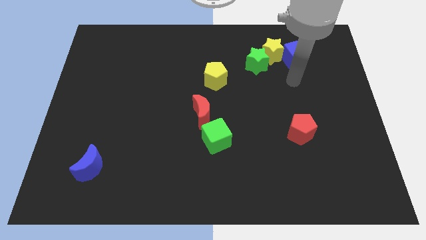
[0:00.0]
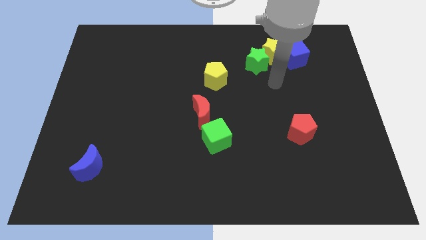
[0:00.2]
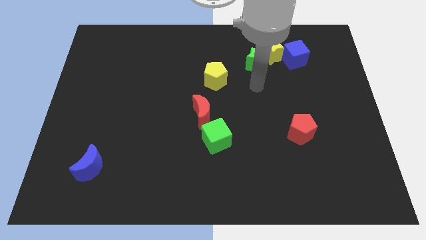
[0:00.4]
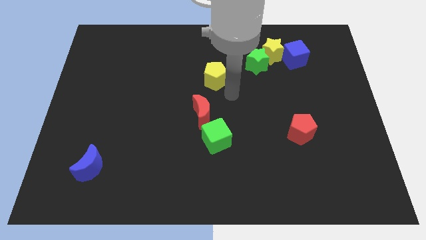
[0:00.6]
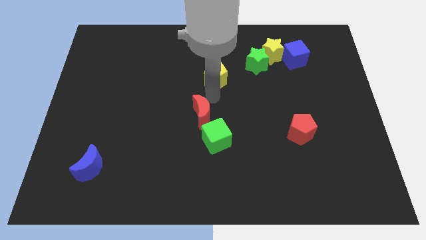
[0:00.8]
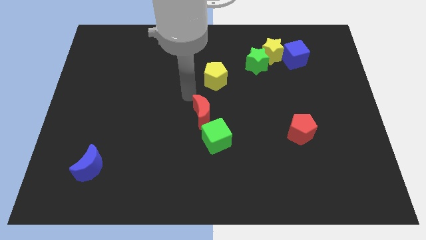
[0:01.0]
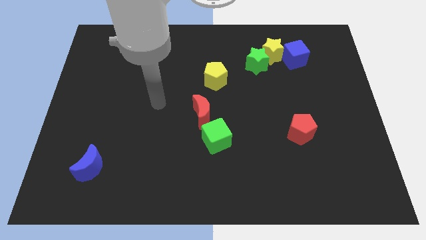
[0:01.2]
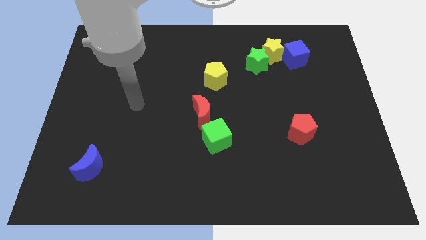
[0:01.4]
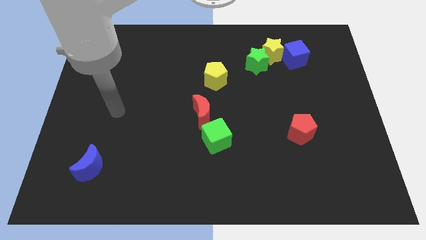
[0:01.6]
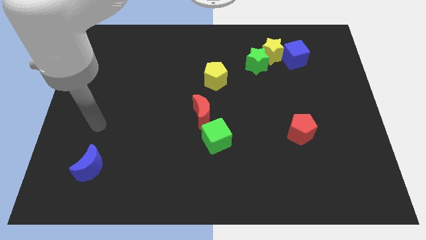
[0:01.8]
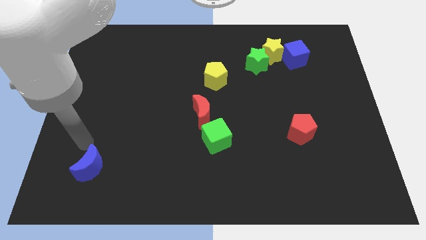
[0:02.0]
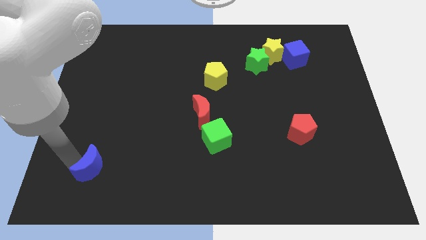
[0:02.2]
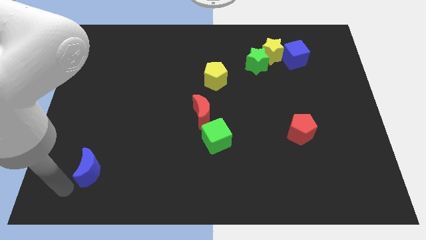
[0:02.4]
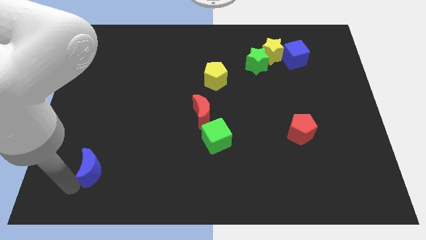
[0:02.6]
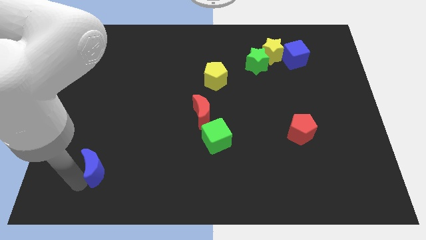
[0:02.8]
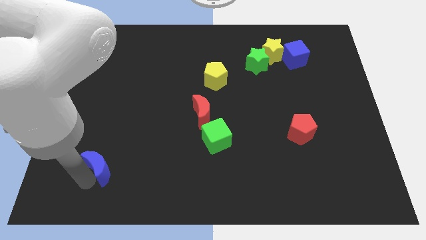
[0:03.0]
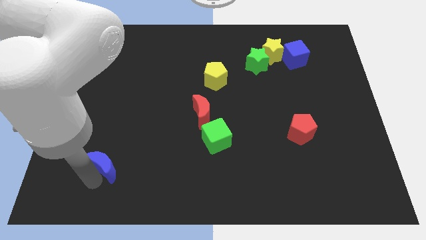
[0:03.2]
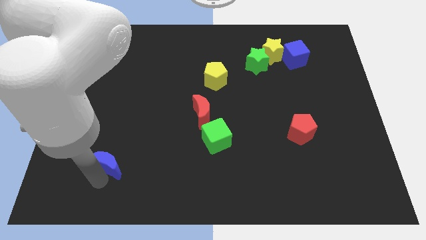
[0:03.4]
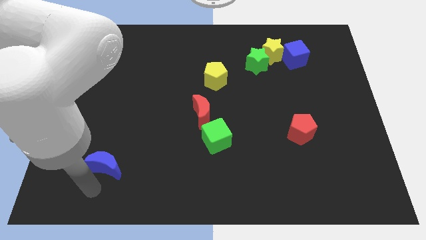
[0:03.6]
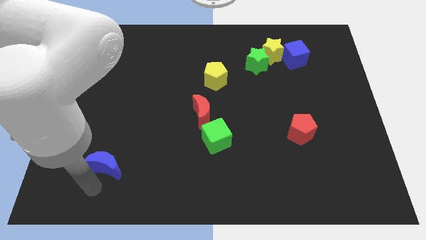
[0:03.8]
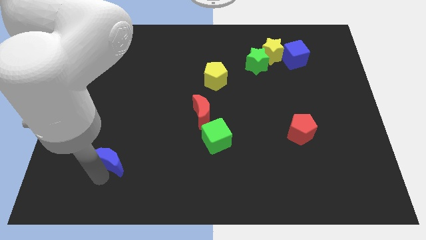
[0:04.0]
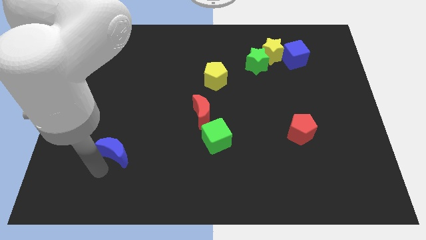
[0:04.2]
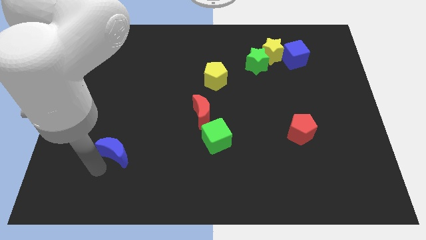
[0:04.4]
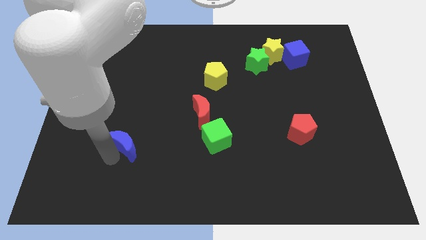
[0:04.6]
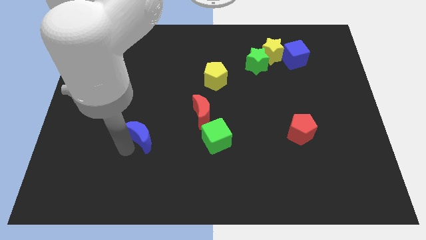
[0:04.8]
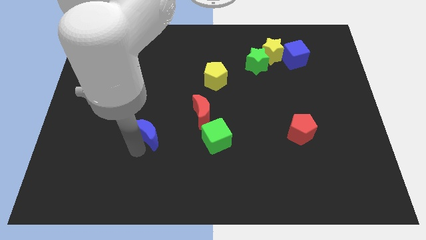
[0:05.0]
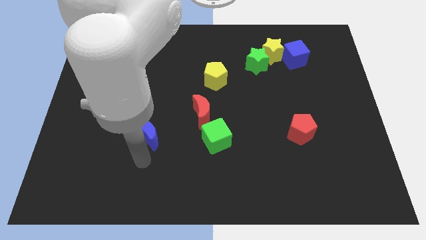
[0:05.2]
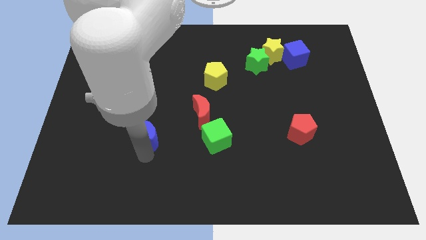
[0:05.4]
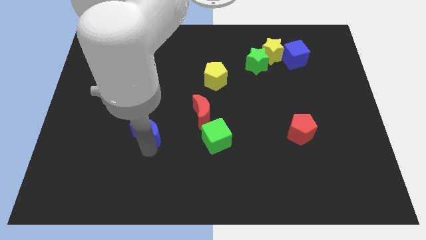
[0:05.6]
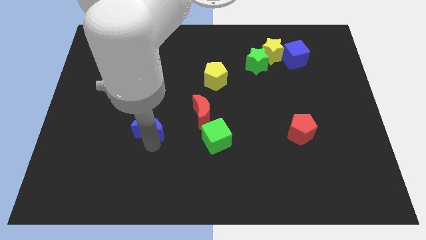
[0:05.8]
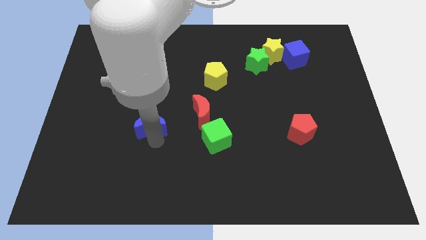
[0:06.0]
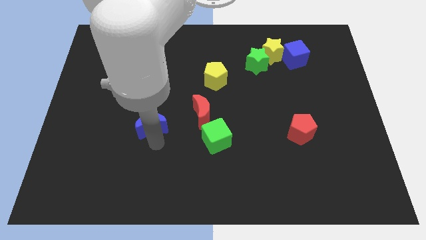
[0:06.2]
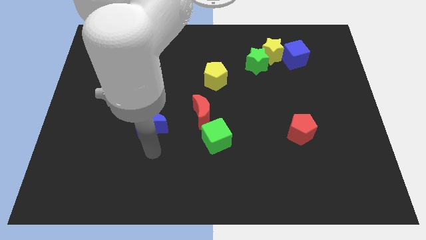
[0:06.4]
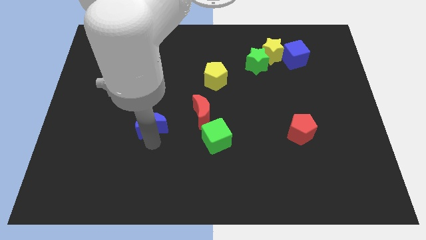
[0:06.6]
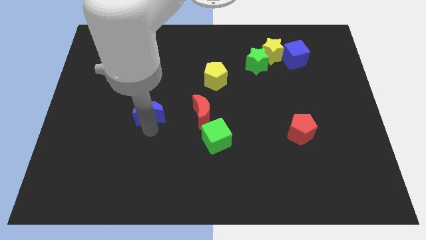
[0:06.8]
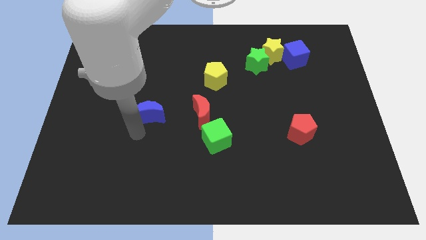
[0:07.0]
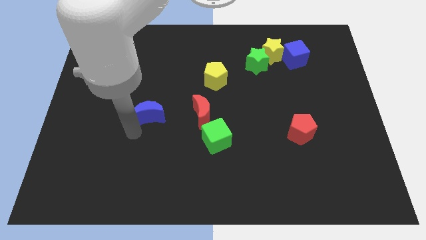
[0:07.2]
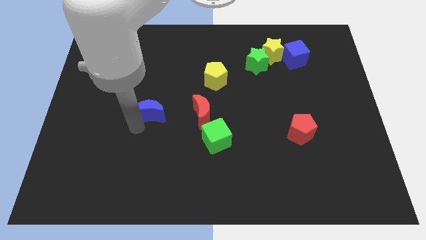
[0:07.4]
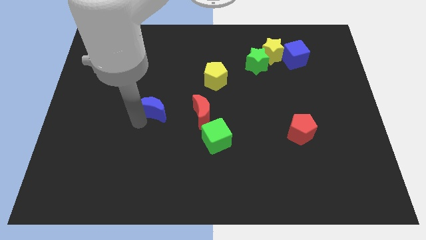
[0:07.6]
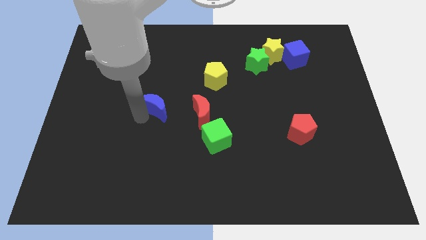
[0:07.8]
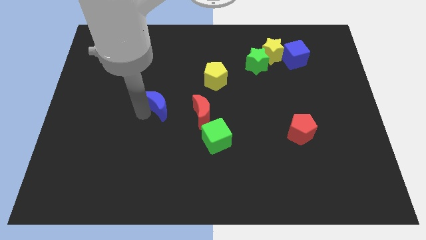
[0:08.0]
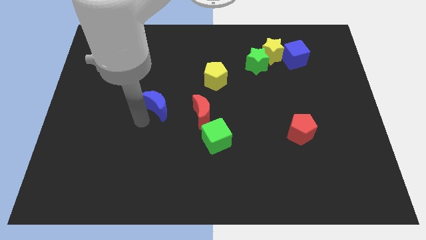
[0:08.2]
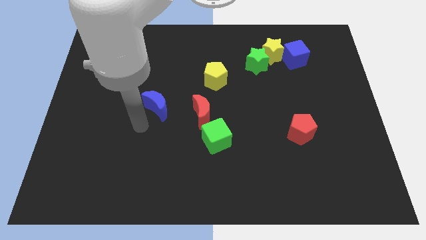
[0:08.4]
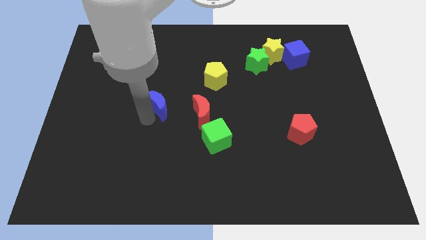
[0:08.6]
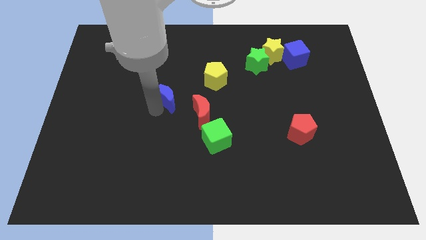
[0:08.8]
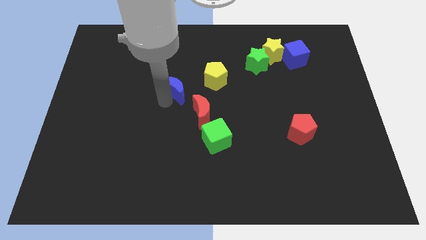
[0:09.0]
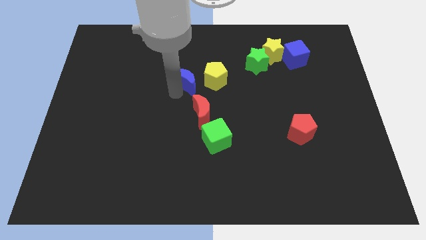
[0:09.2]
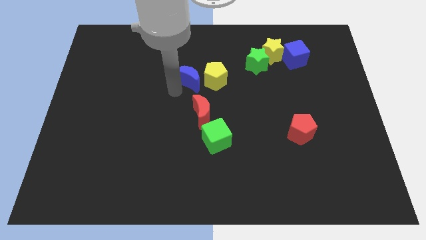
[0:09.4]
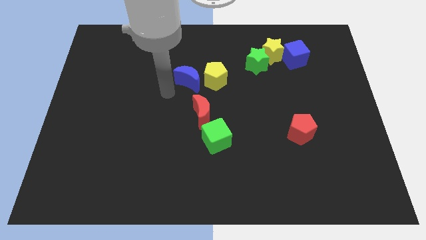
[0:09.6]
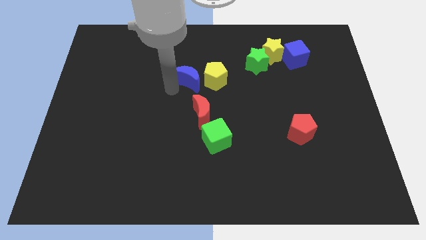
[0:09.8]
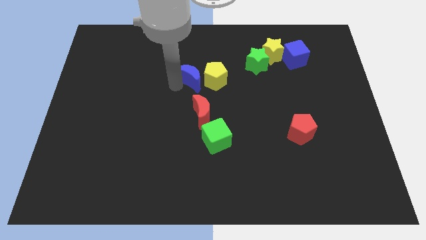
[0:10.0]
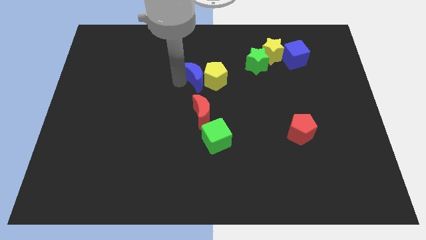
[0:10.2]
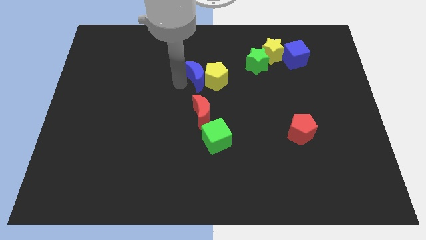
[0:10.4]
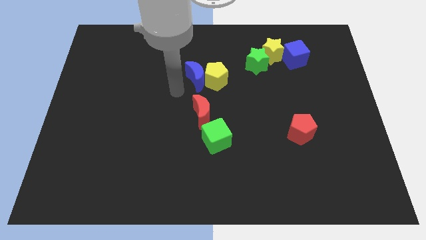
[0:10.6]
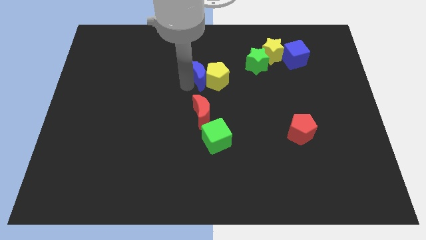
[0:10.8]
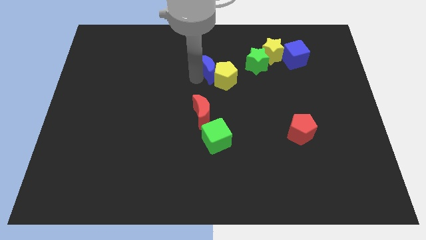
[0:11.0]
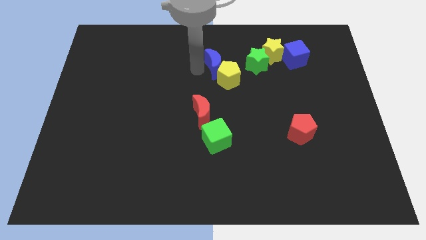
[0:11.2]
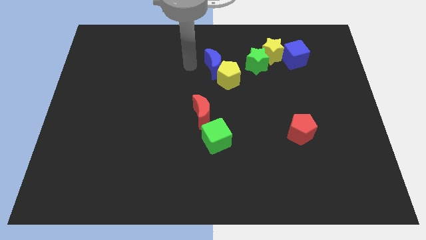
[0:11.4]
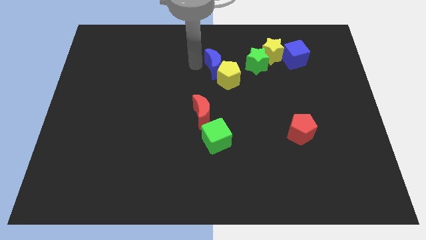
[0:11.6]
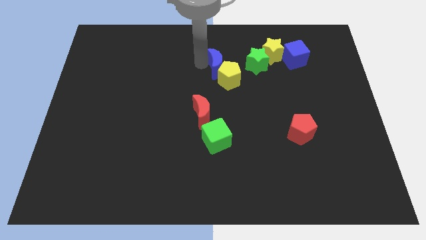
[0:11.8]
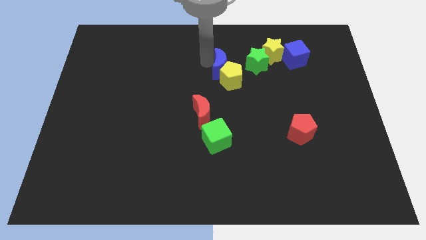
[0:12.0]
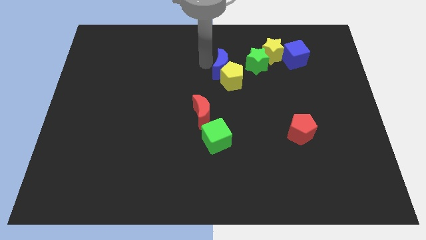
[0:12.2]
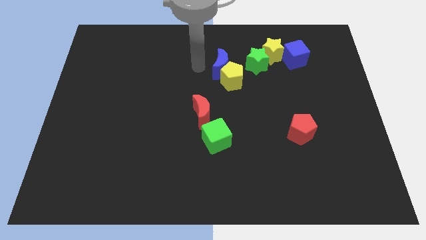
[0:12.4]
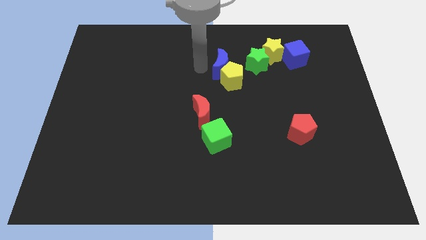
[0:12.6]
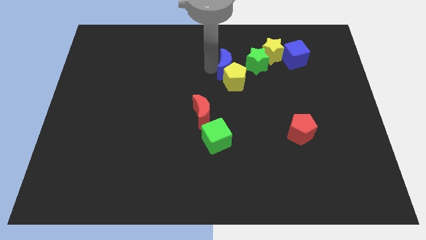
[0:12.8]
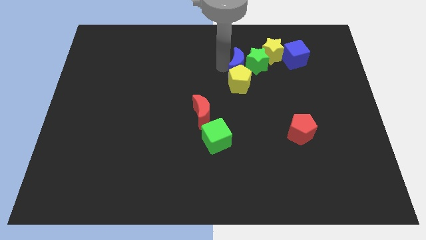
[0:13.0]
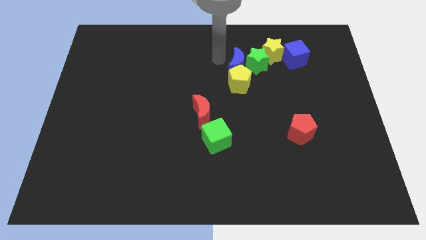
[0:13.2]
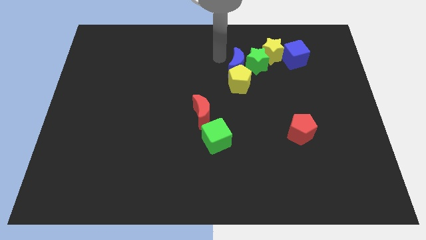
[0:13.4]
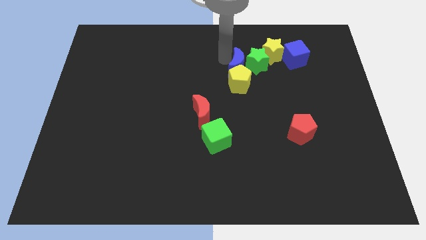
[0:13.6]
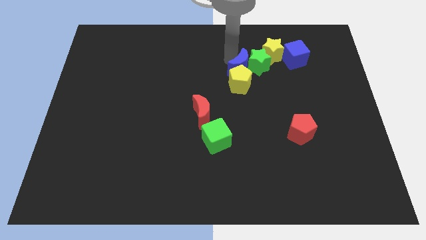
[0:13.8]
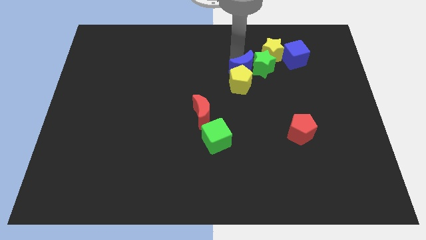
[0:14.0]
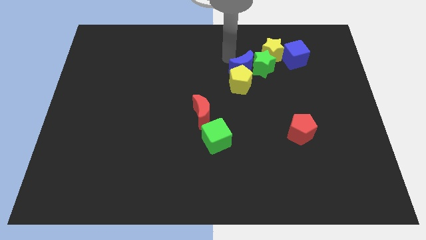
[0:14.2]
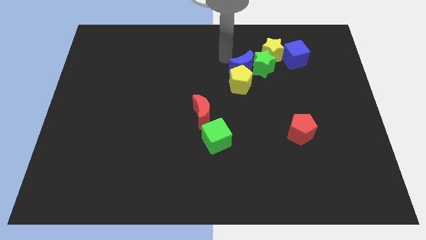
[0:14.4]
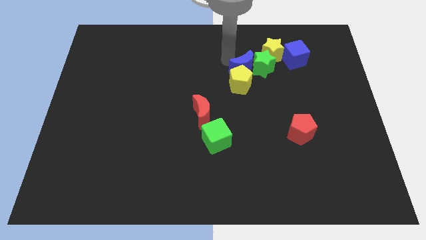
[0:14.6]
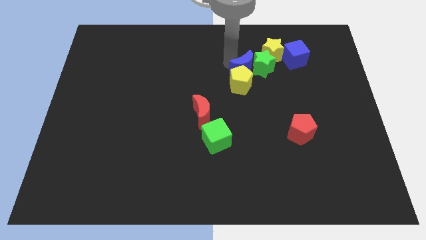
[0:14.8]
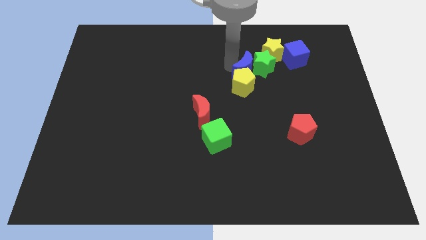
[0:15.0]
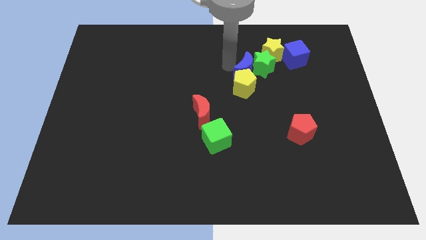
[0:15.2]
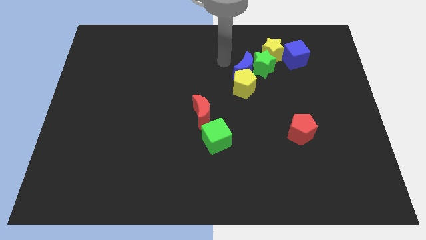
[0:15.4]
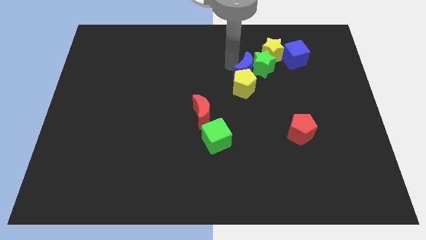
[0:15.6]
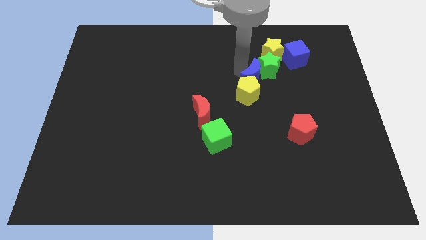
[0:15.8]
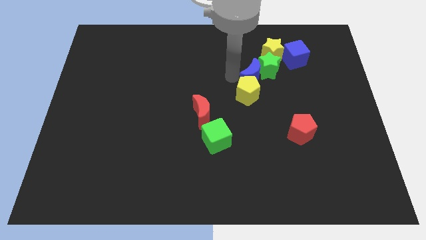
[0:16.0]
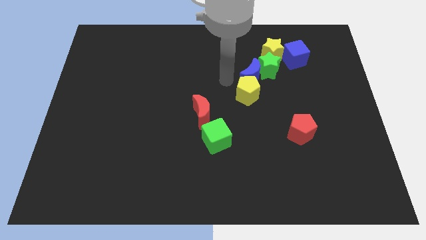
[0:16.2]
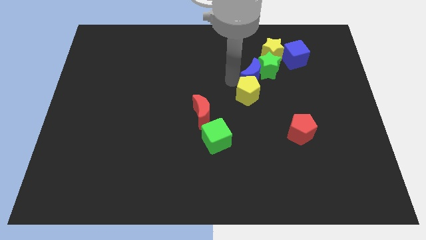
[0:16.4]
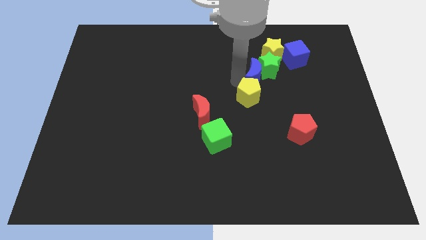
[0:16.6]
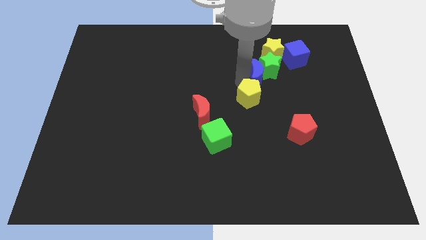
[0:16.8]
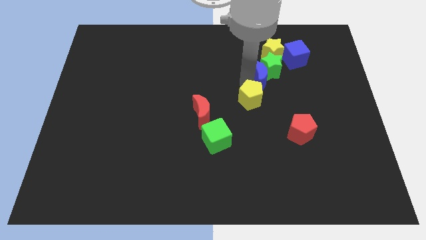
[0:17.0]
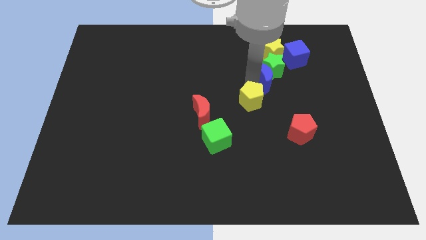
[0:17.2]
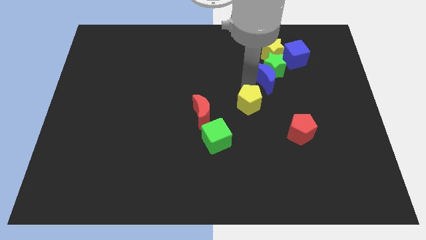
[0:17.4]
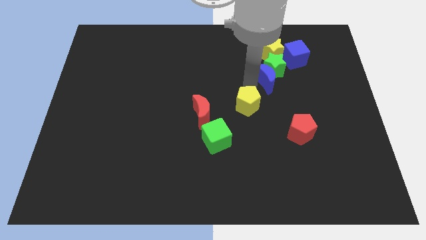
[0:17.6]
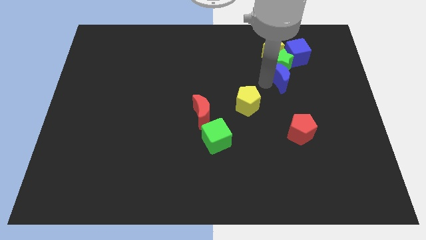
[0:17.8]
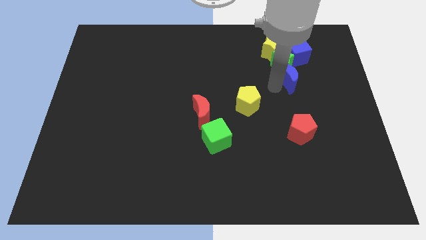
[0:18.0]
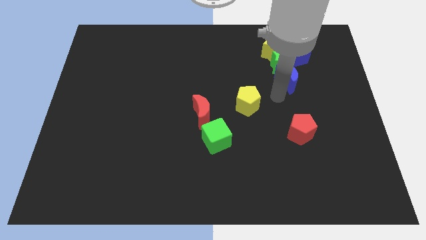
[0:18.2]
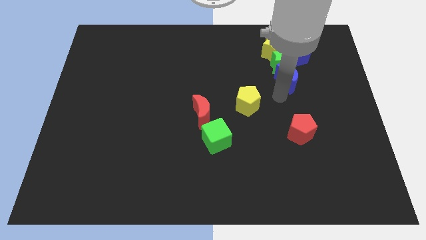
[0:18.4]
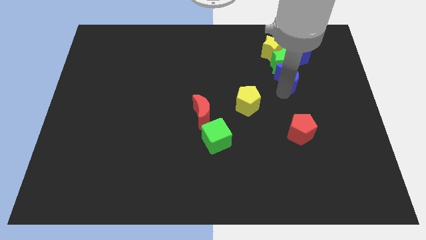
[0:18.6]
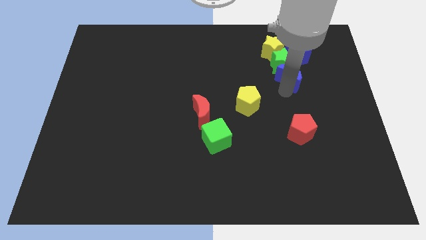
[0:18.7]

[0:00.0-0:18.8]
move the blue moon diagonally down and to the right of the yellow star
